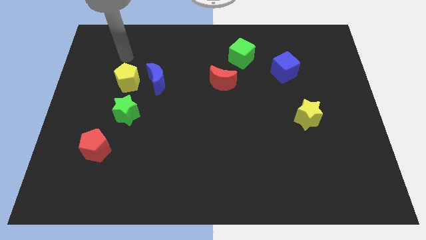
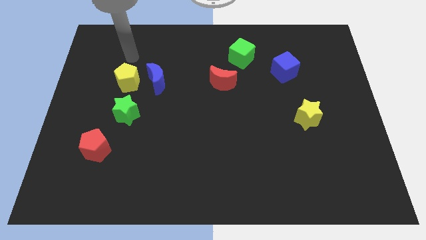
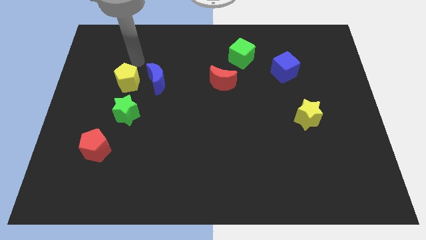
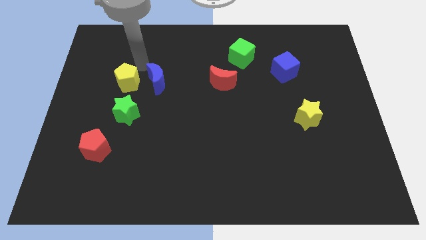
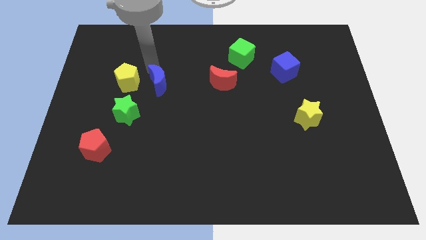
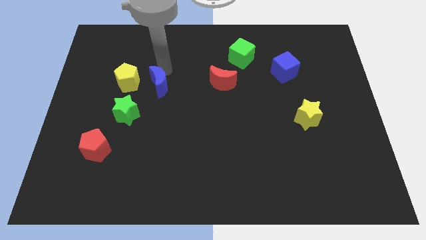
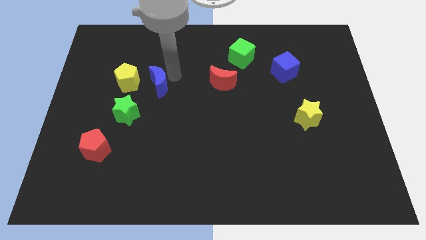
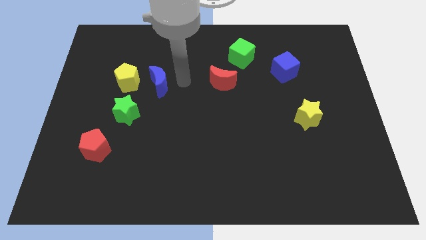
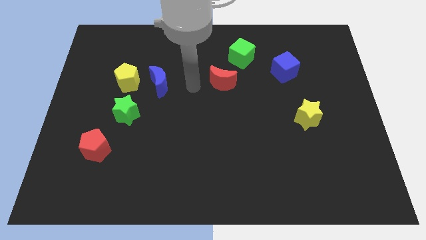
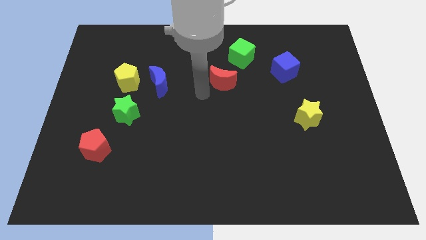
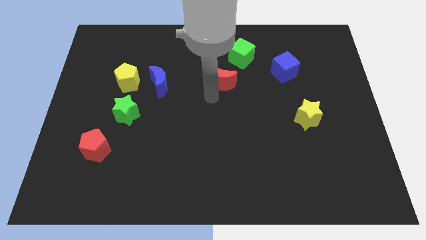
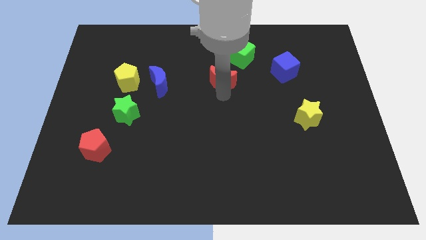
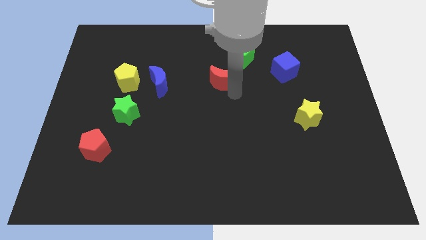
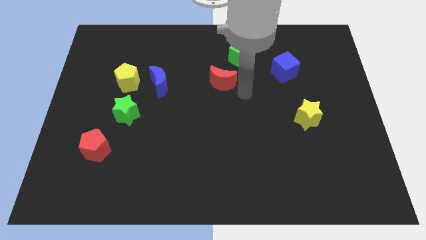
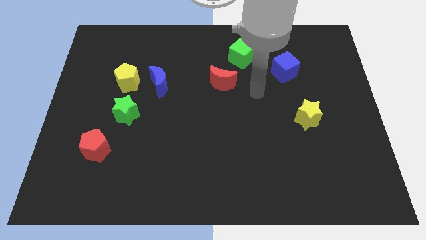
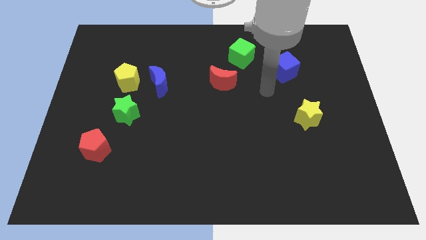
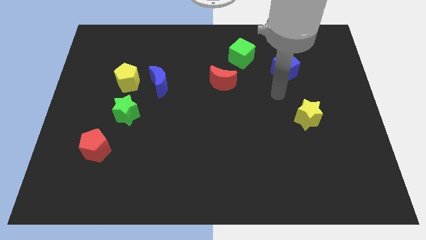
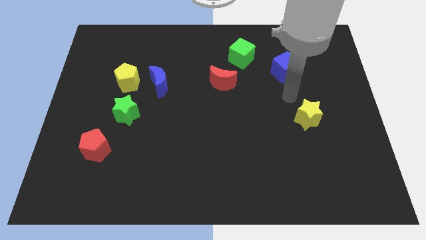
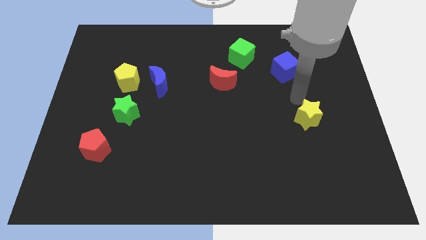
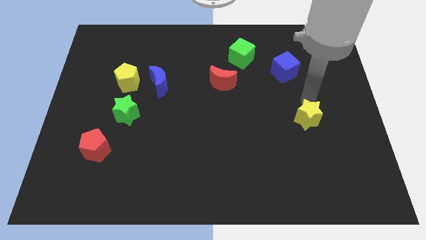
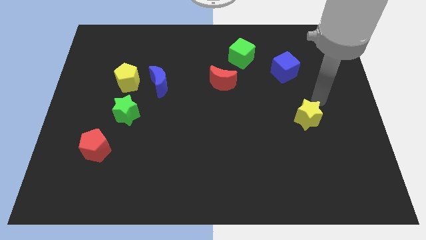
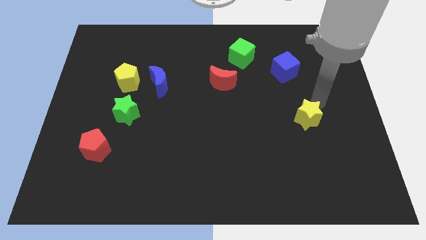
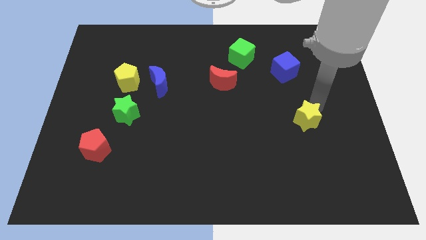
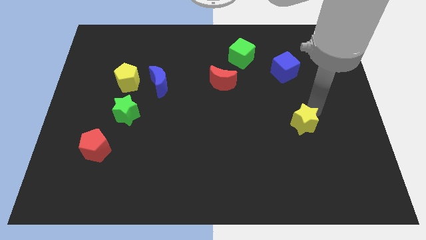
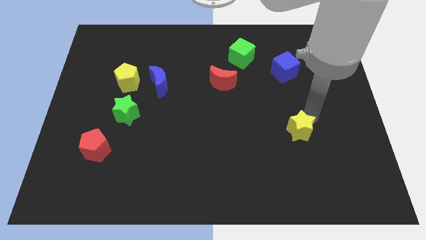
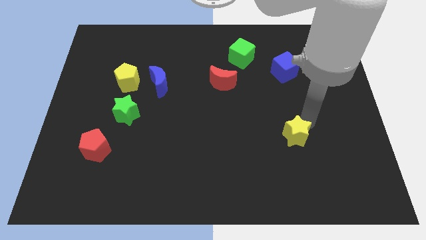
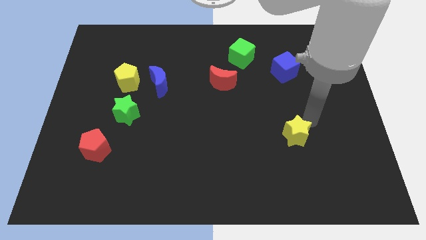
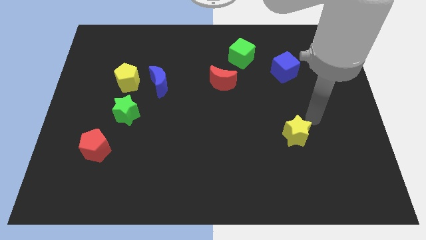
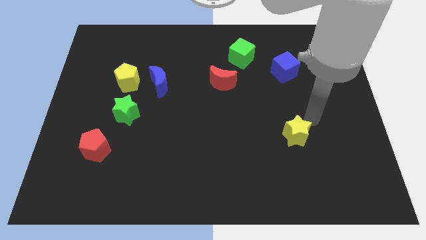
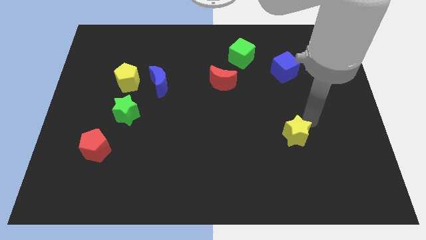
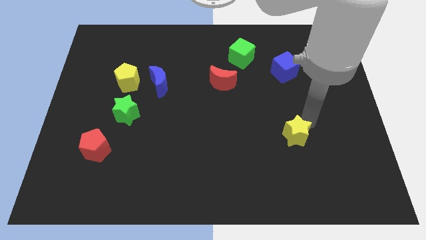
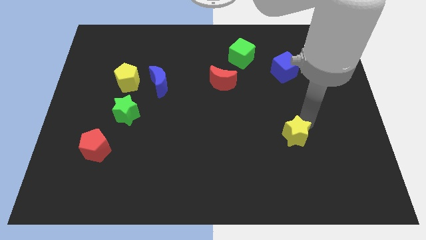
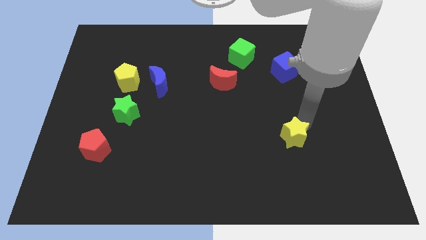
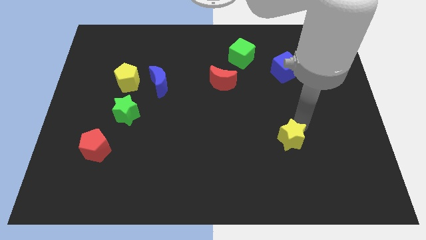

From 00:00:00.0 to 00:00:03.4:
push the yellow star a bit downwards and to the left

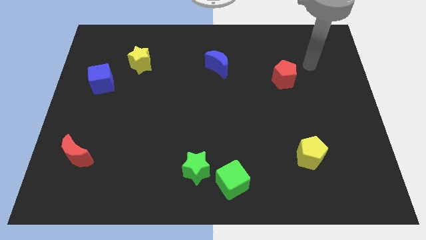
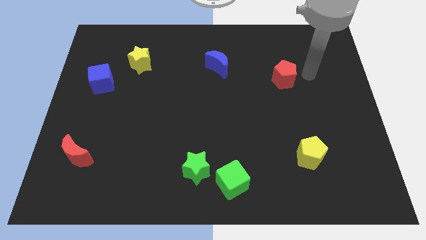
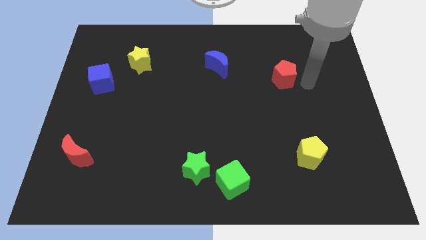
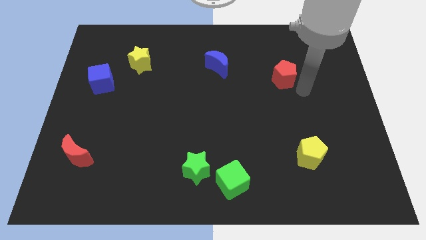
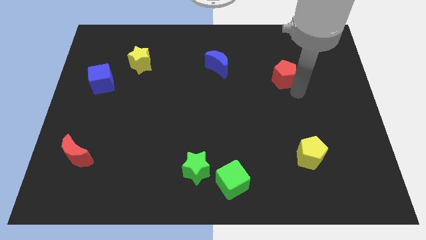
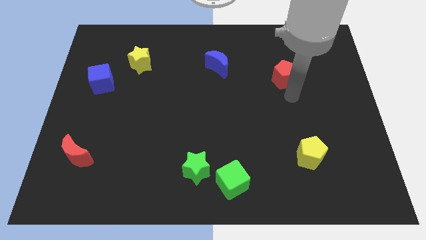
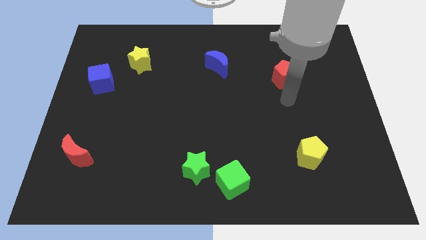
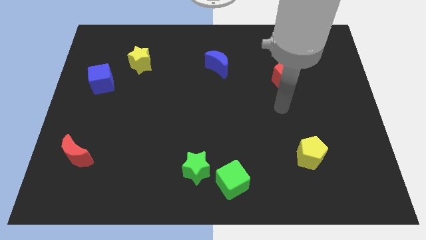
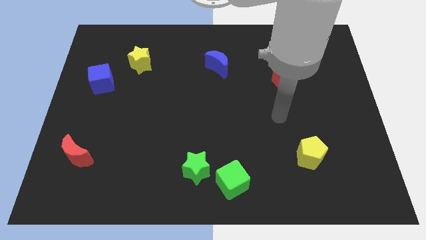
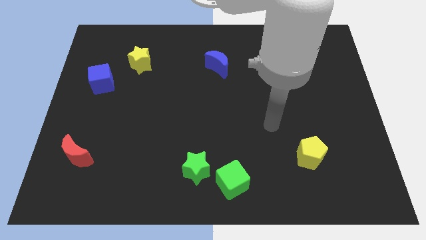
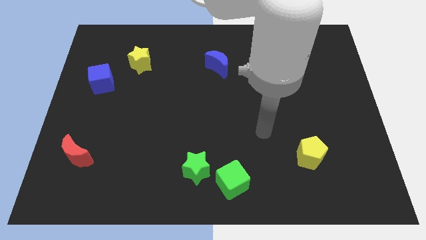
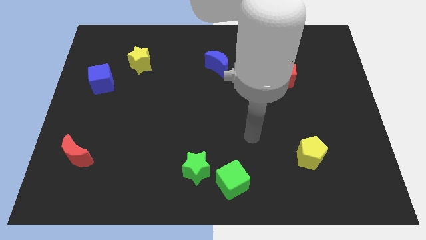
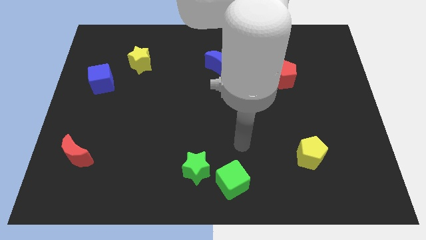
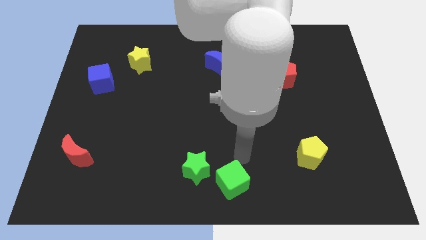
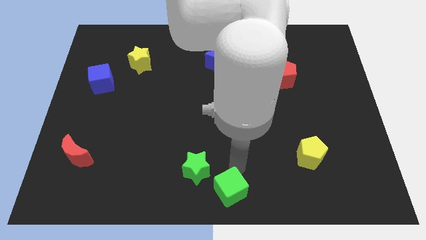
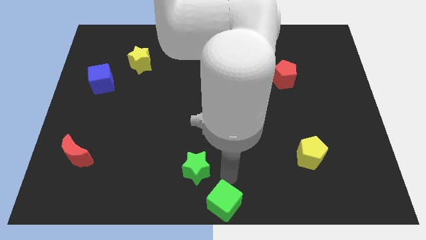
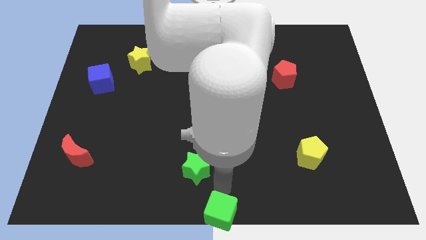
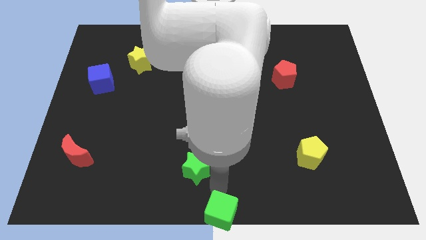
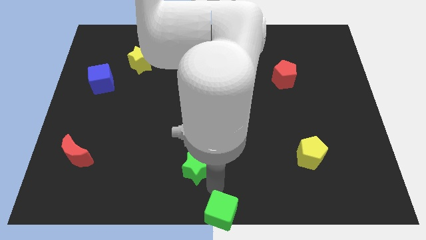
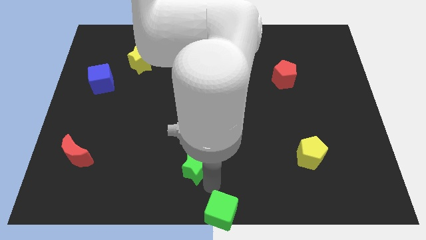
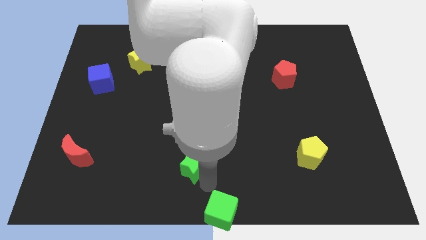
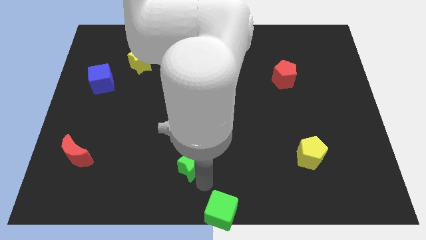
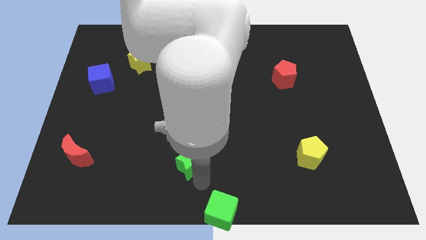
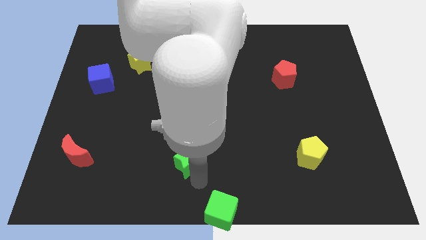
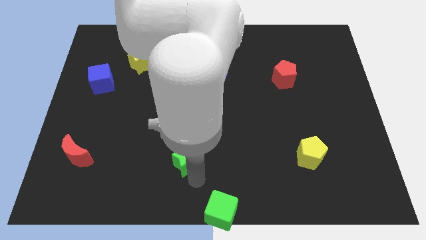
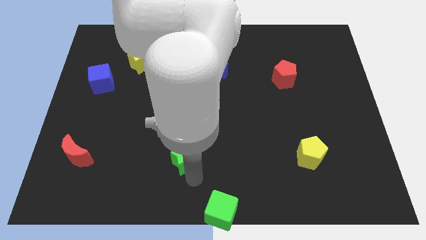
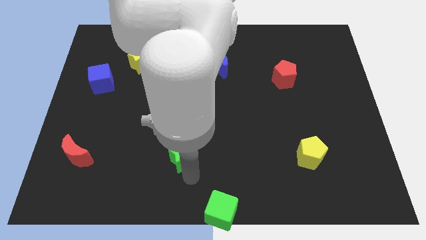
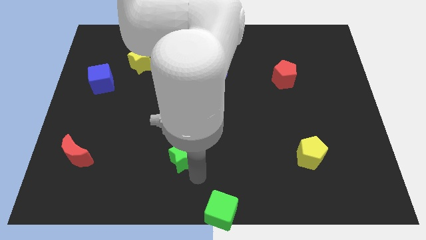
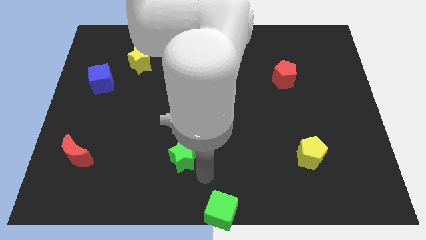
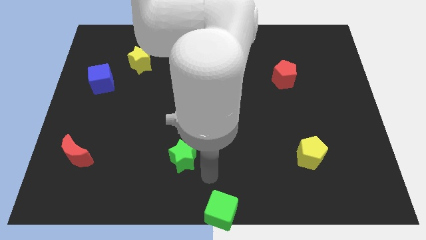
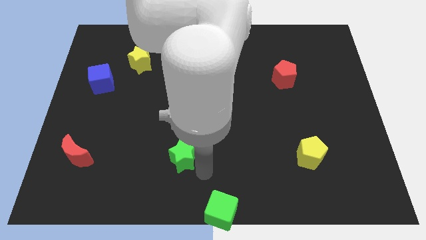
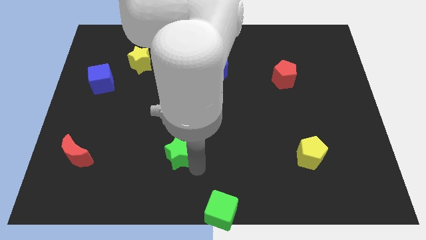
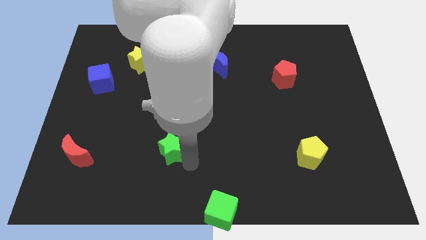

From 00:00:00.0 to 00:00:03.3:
slightly move the green star up and left

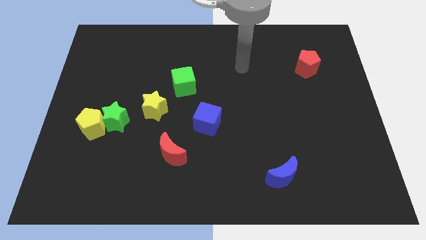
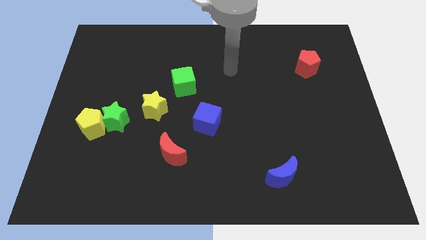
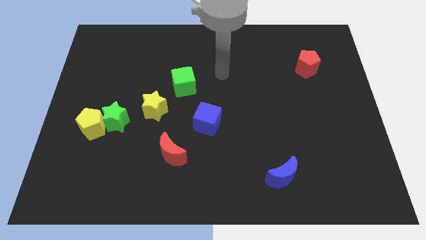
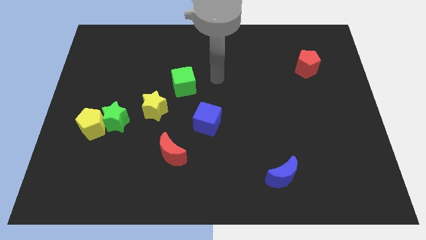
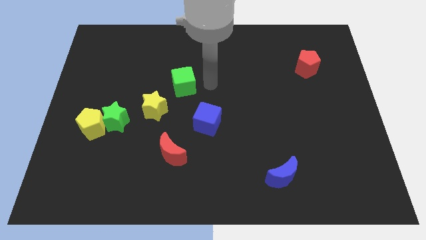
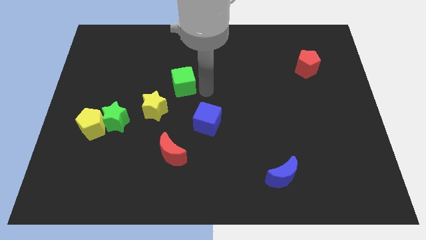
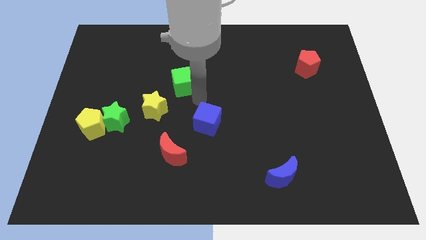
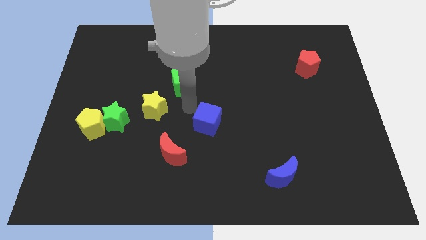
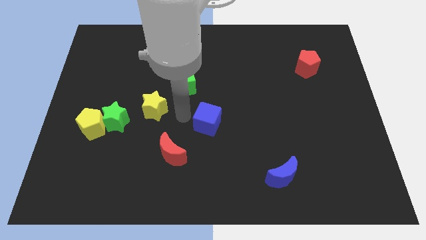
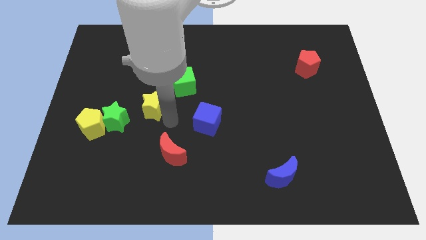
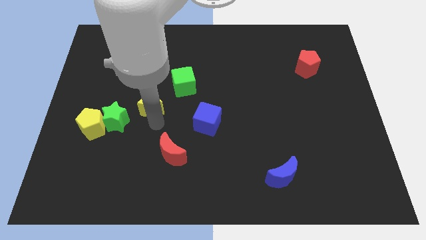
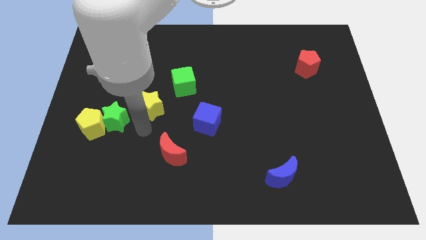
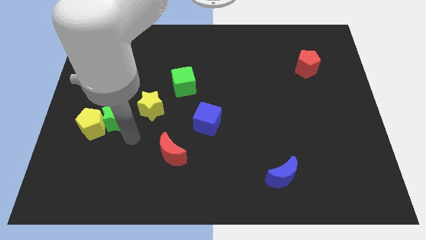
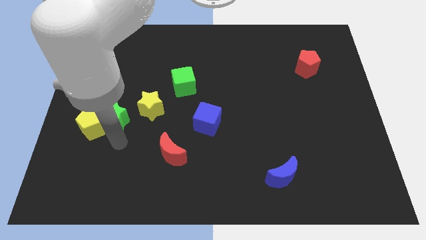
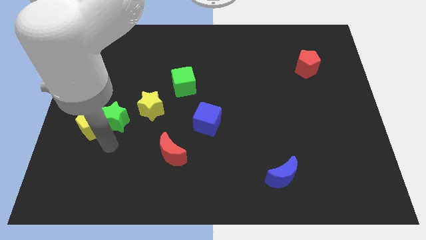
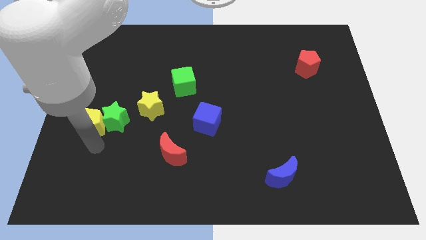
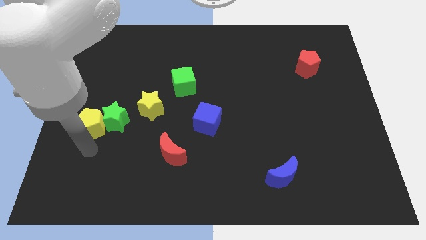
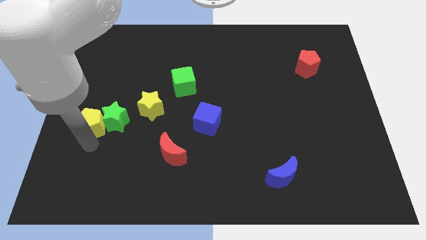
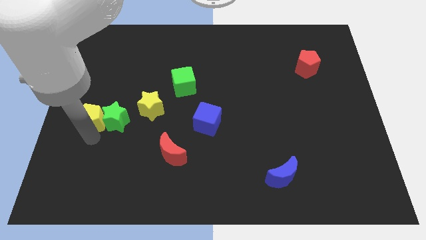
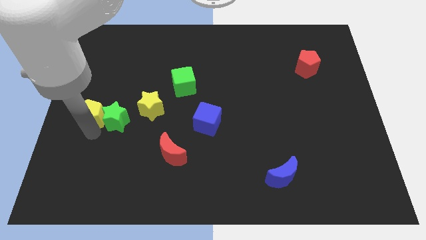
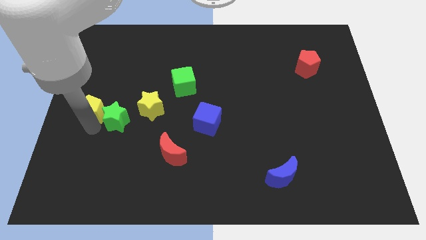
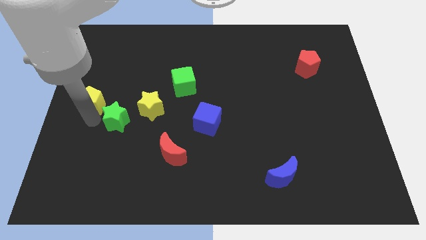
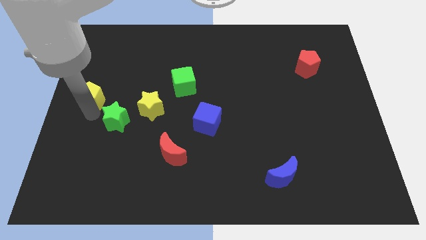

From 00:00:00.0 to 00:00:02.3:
move the yellow pentagon up a bit

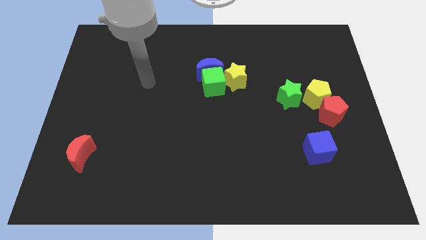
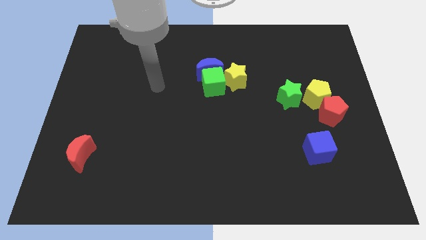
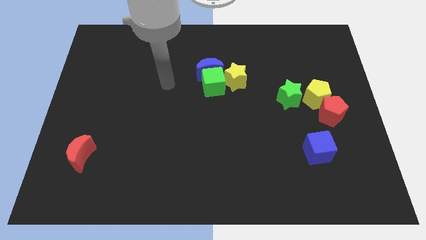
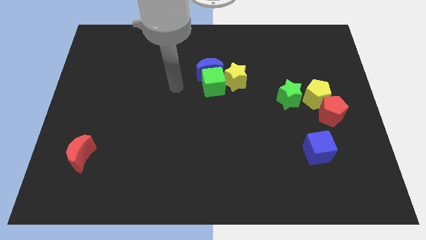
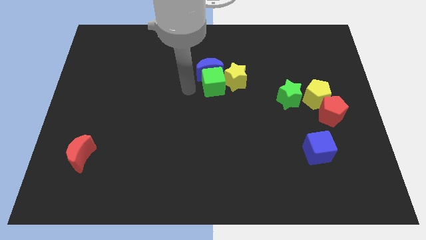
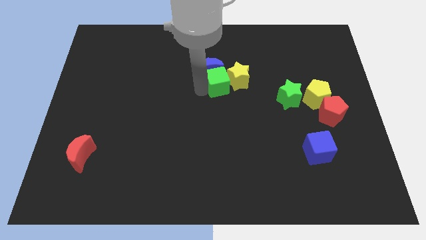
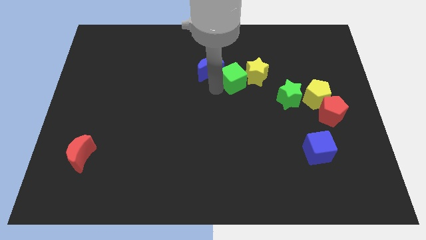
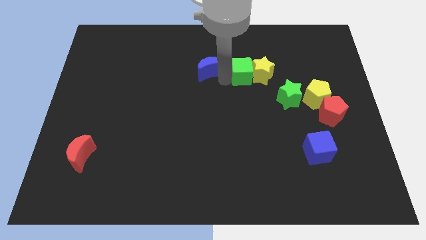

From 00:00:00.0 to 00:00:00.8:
slightly push the yellow star right
